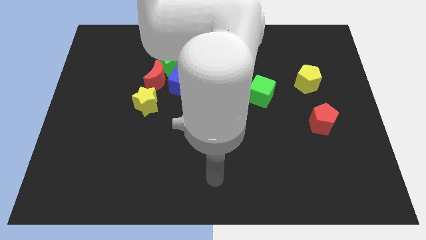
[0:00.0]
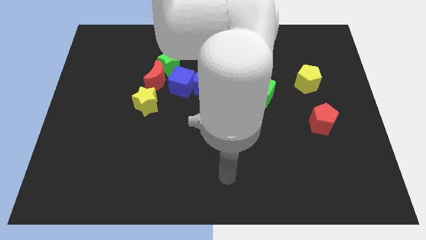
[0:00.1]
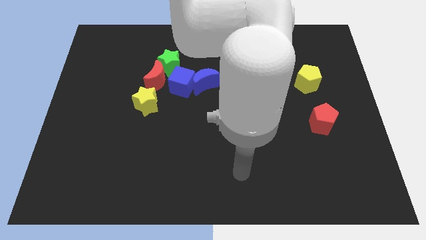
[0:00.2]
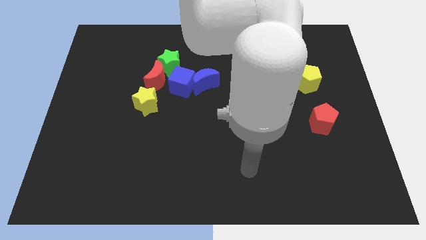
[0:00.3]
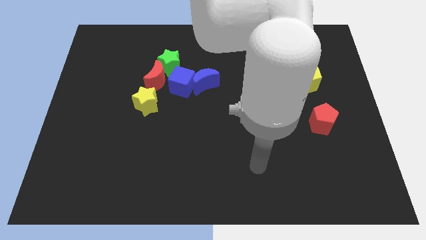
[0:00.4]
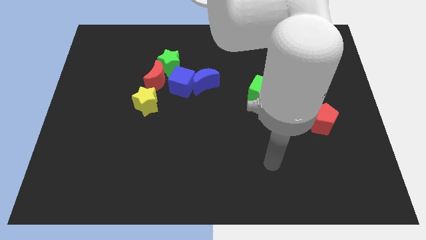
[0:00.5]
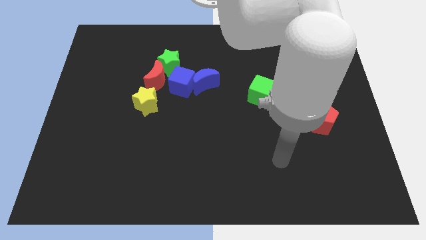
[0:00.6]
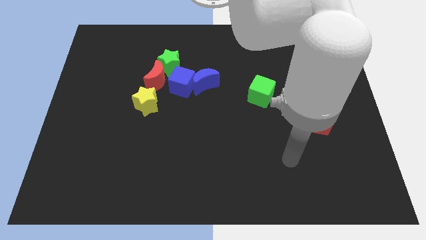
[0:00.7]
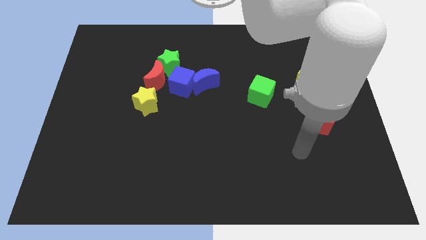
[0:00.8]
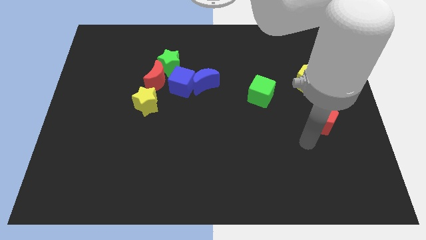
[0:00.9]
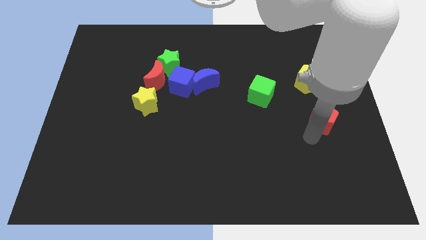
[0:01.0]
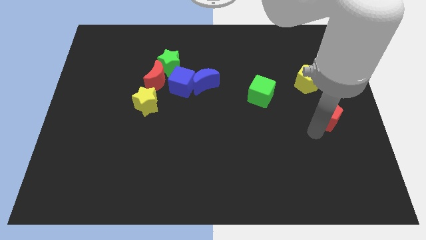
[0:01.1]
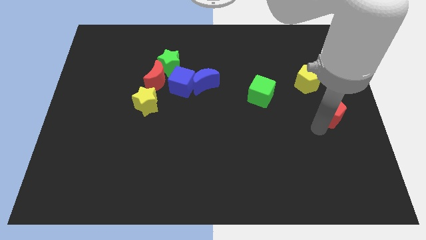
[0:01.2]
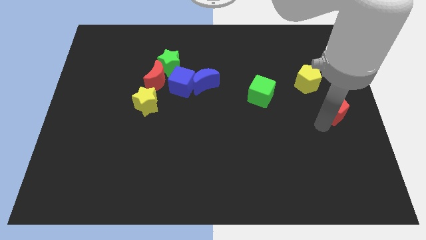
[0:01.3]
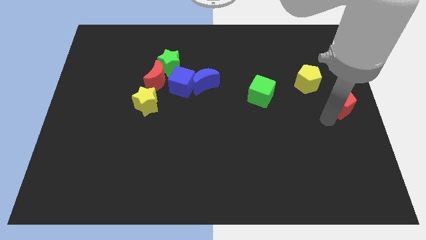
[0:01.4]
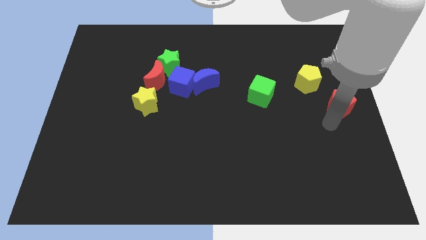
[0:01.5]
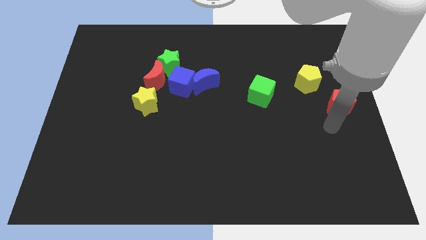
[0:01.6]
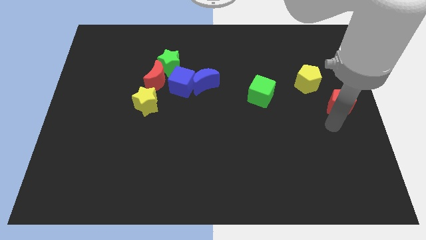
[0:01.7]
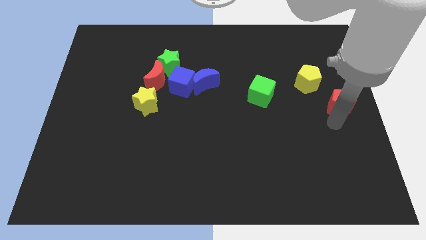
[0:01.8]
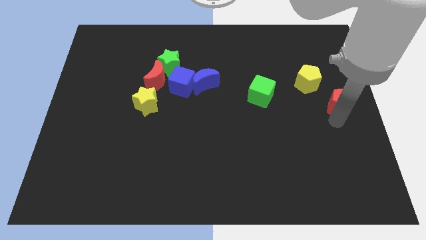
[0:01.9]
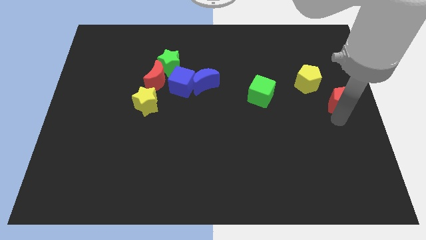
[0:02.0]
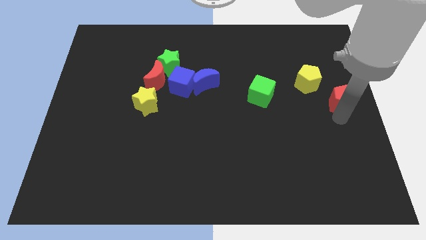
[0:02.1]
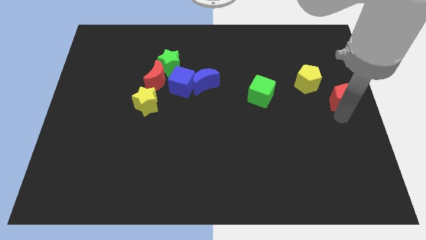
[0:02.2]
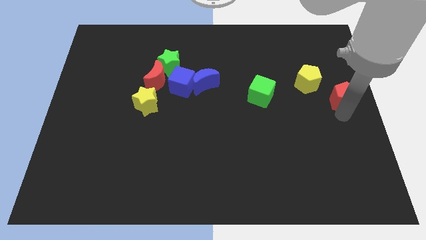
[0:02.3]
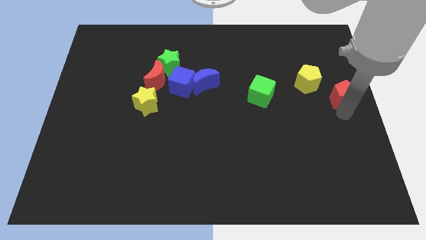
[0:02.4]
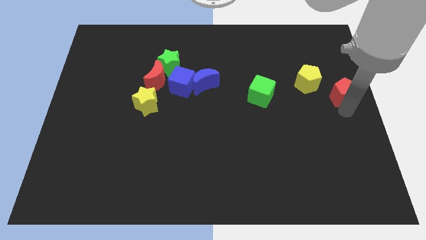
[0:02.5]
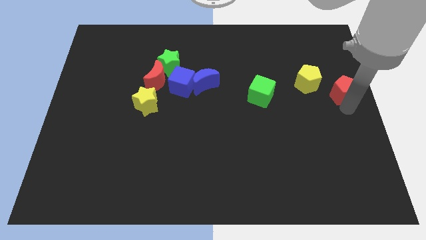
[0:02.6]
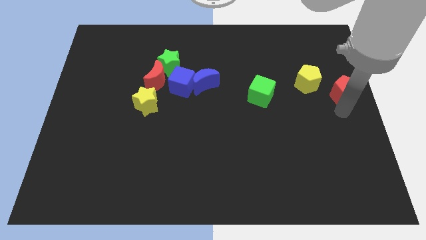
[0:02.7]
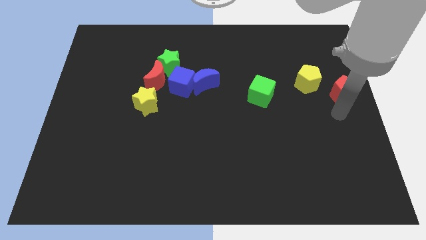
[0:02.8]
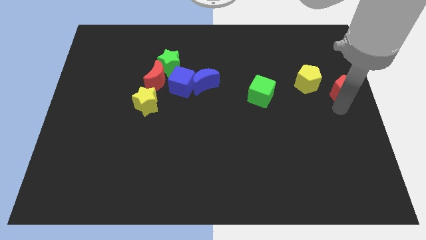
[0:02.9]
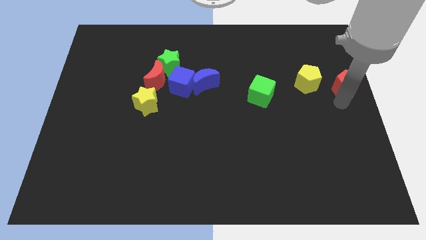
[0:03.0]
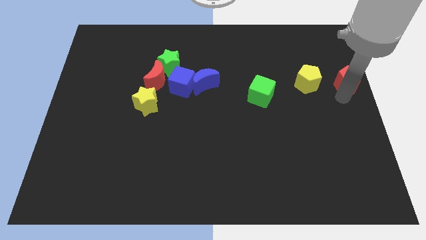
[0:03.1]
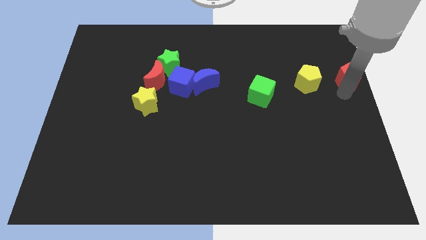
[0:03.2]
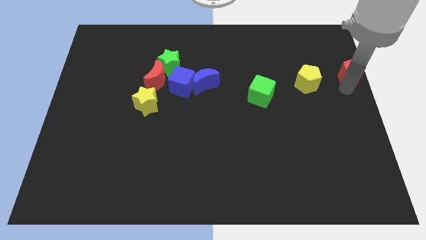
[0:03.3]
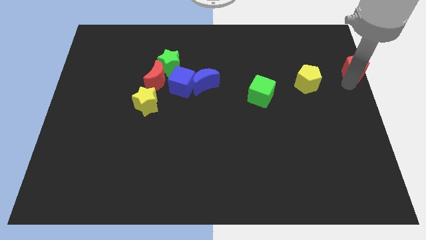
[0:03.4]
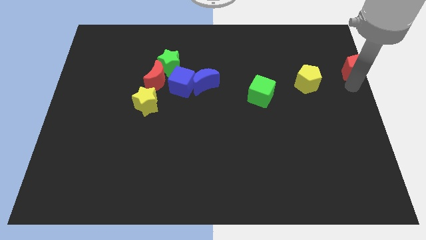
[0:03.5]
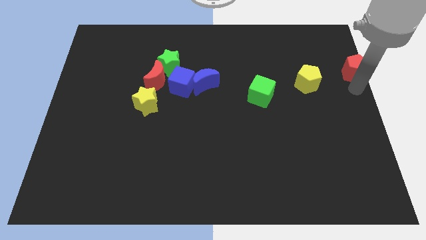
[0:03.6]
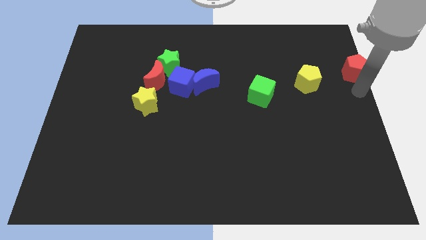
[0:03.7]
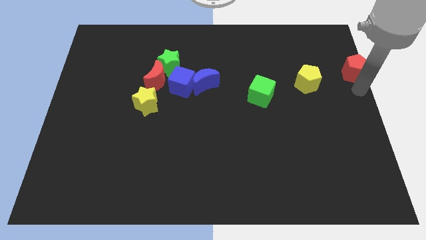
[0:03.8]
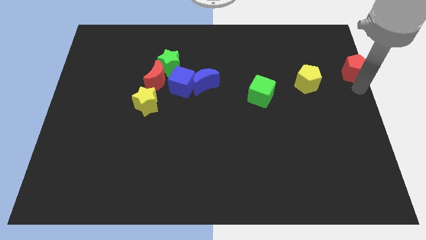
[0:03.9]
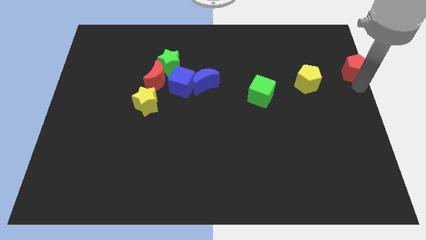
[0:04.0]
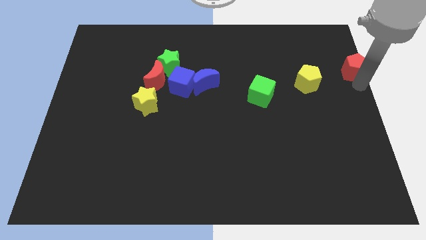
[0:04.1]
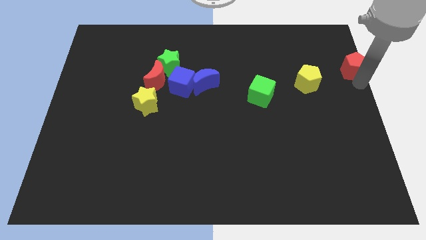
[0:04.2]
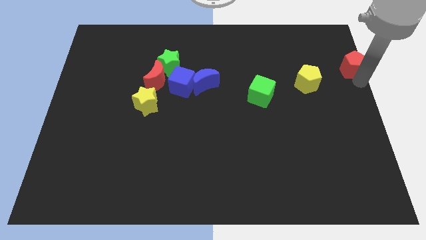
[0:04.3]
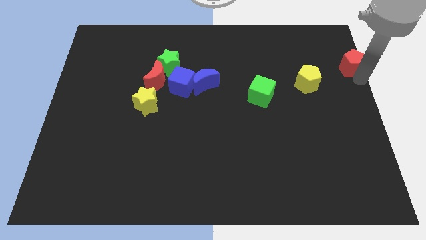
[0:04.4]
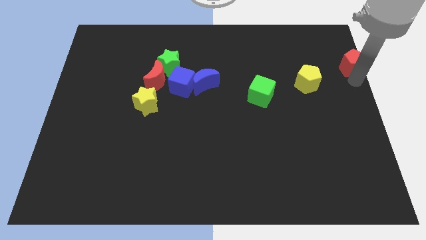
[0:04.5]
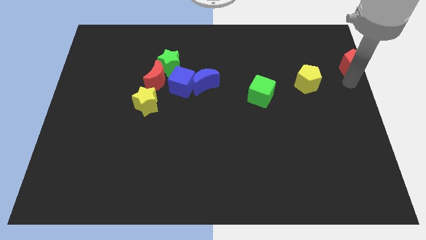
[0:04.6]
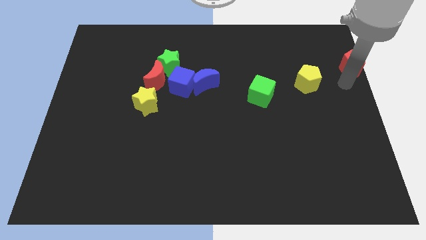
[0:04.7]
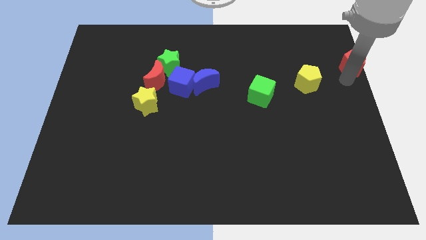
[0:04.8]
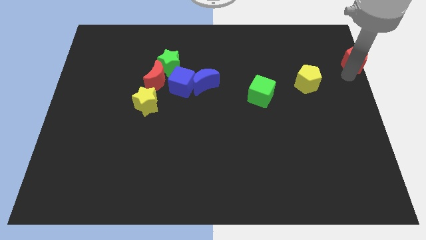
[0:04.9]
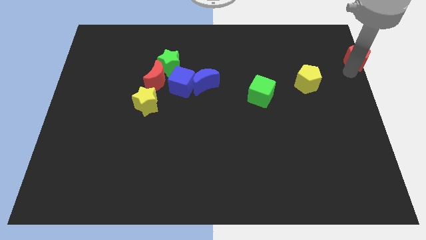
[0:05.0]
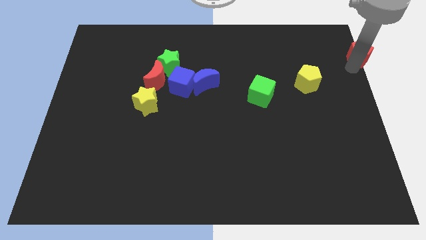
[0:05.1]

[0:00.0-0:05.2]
move the red pentagon to the top right of the board

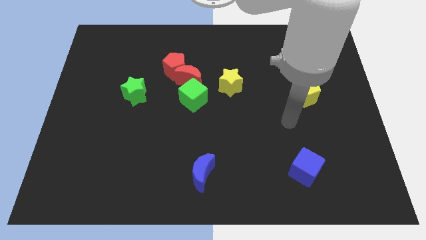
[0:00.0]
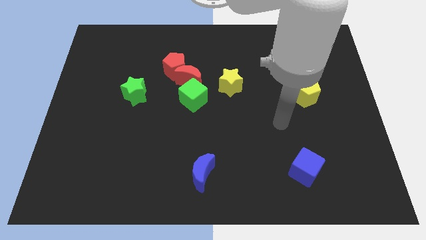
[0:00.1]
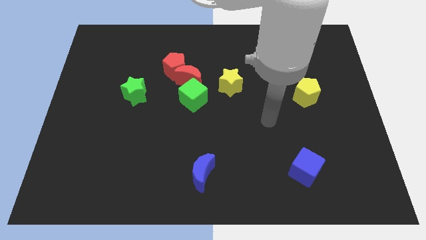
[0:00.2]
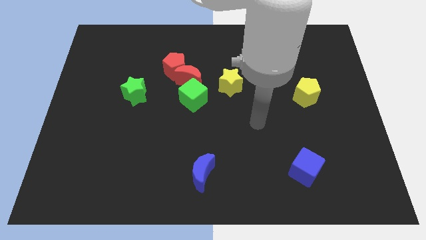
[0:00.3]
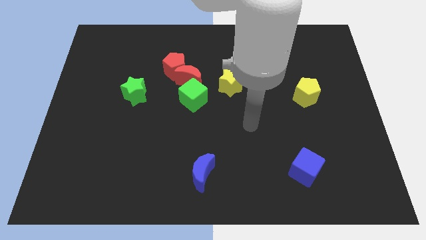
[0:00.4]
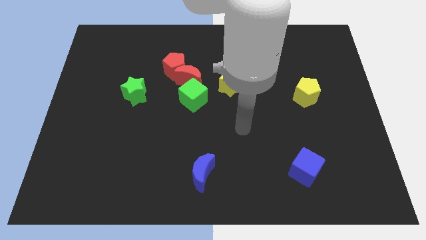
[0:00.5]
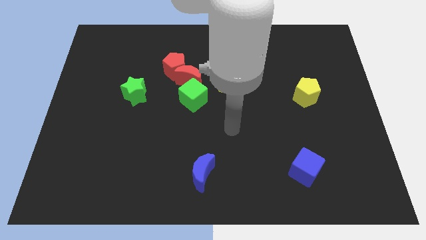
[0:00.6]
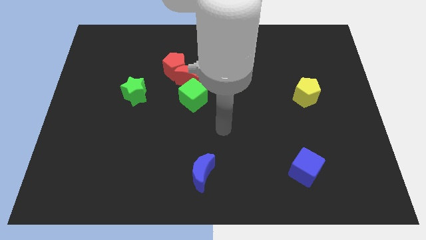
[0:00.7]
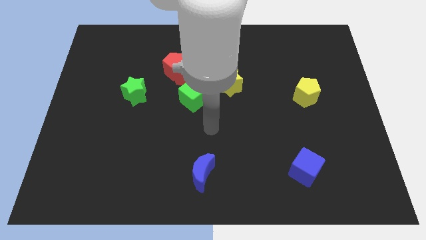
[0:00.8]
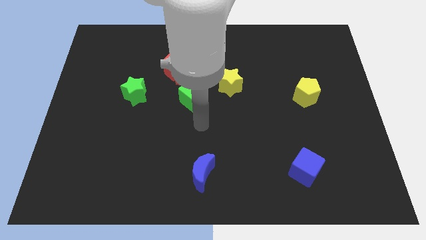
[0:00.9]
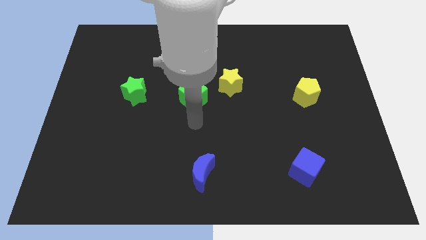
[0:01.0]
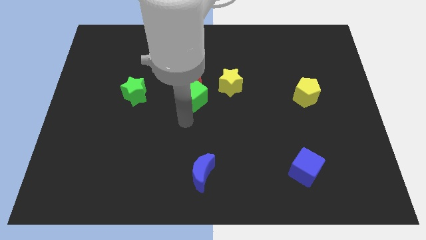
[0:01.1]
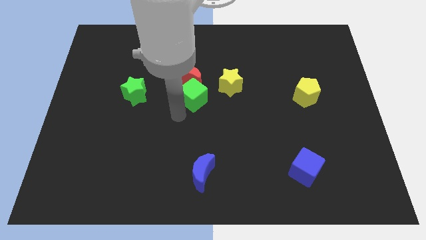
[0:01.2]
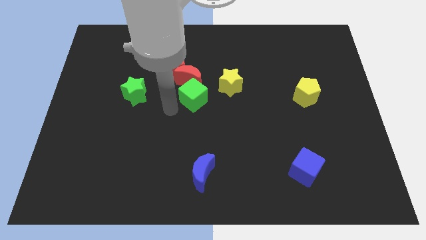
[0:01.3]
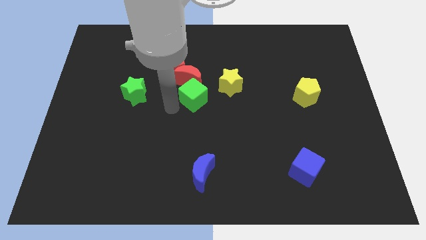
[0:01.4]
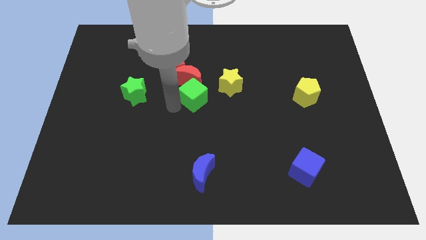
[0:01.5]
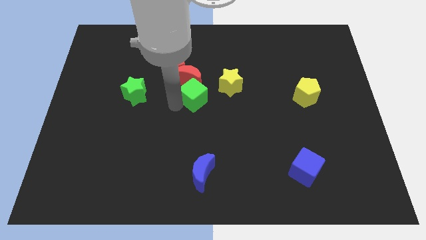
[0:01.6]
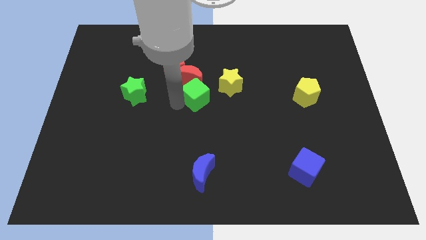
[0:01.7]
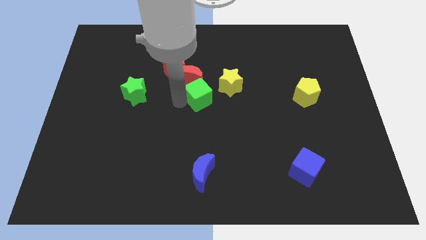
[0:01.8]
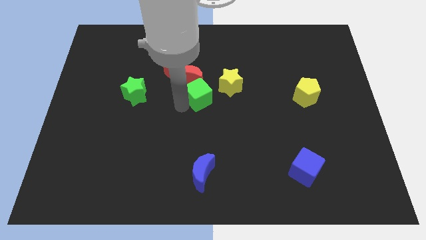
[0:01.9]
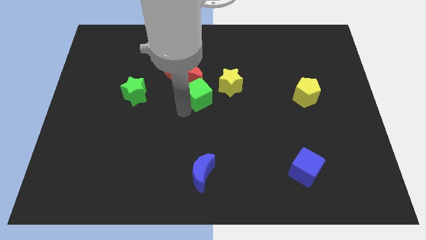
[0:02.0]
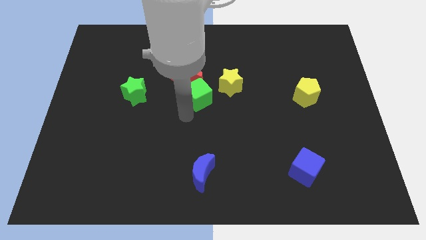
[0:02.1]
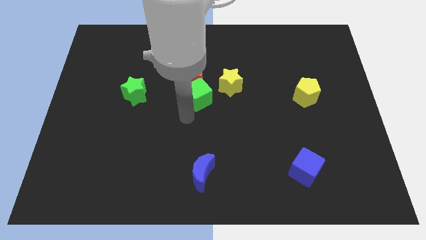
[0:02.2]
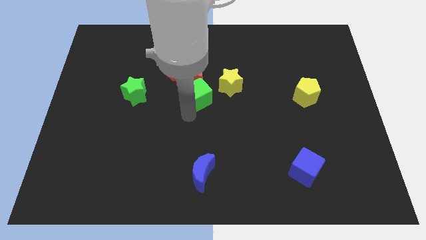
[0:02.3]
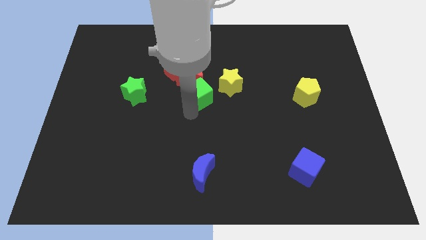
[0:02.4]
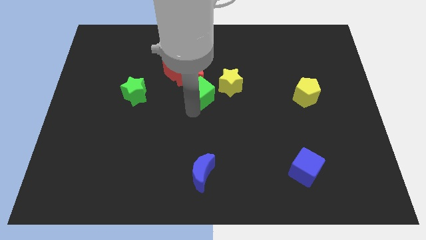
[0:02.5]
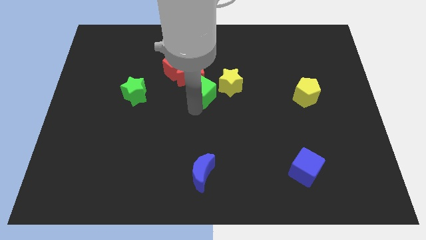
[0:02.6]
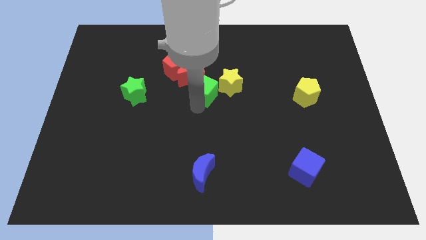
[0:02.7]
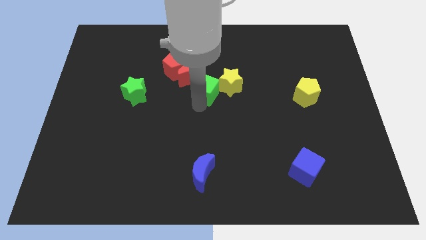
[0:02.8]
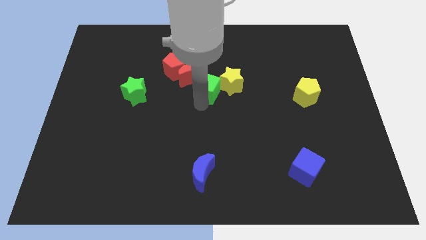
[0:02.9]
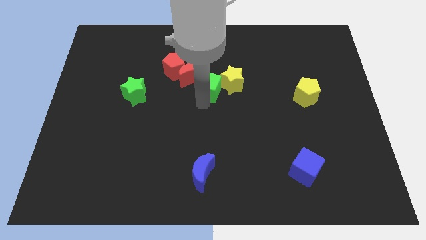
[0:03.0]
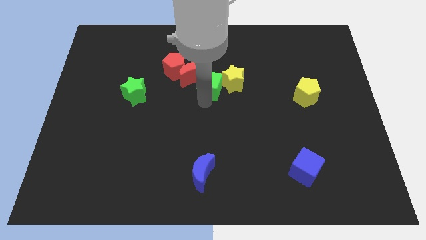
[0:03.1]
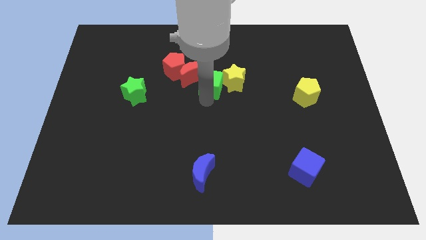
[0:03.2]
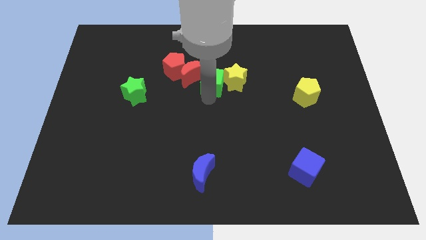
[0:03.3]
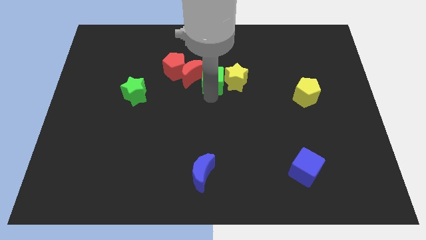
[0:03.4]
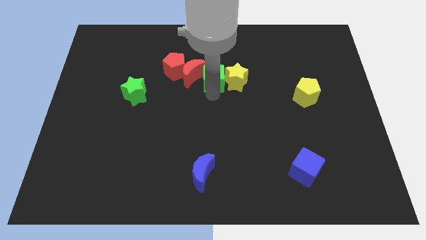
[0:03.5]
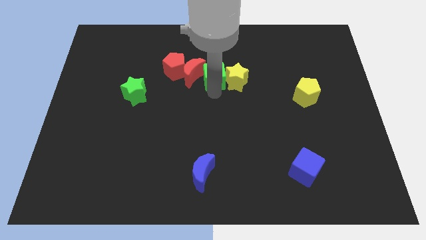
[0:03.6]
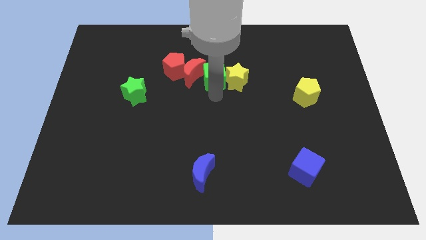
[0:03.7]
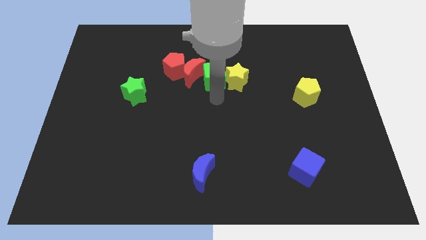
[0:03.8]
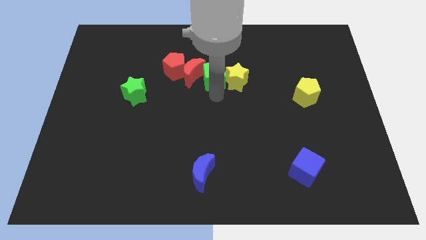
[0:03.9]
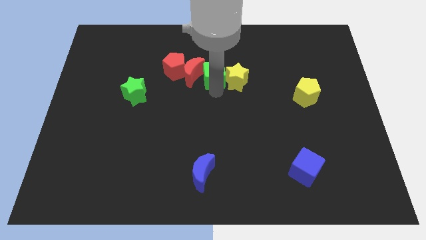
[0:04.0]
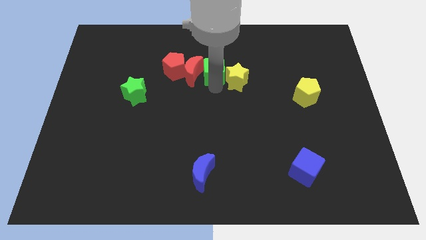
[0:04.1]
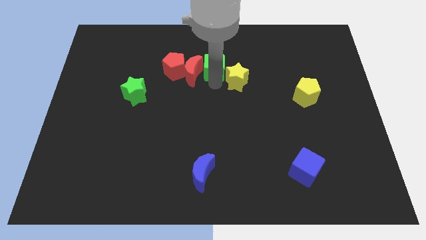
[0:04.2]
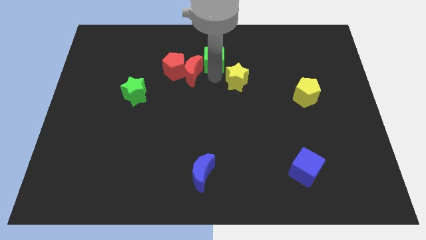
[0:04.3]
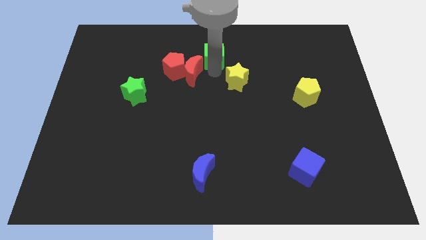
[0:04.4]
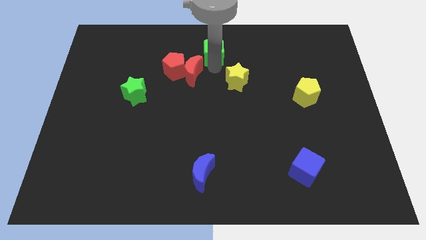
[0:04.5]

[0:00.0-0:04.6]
push the green cube to the top side
